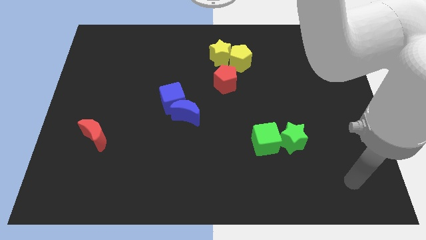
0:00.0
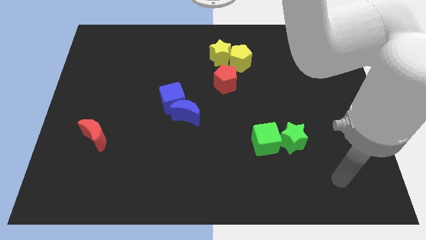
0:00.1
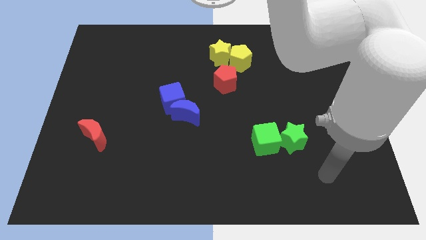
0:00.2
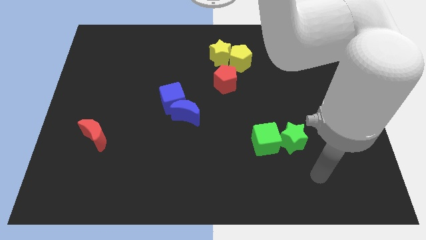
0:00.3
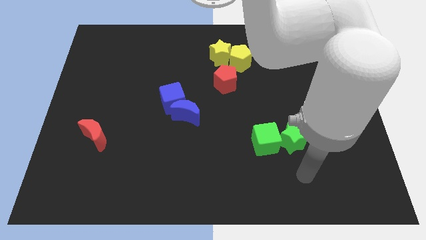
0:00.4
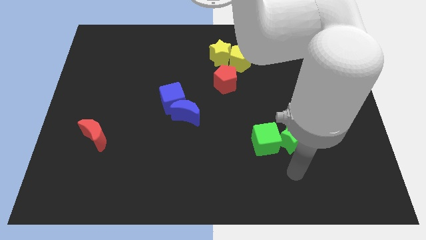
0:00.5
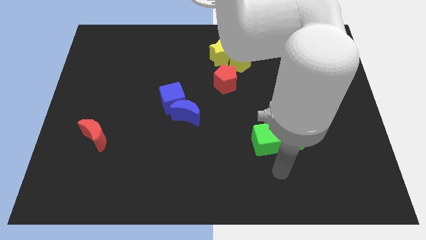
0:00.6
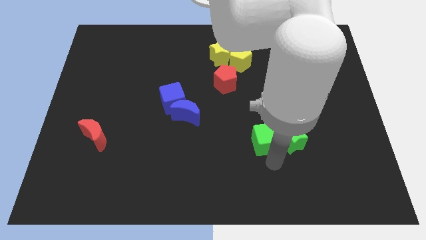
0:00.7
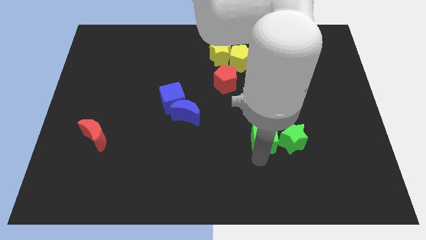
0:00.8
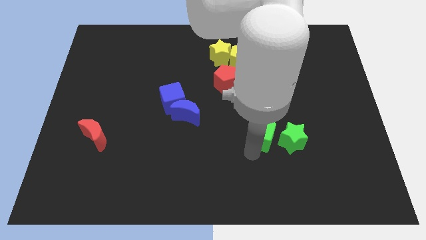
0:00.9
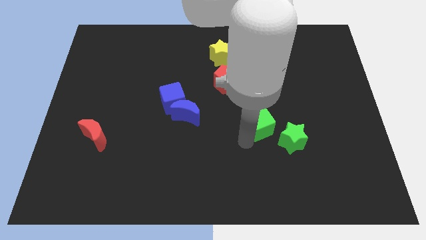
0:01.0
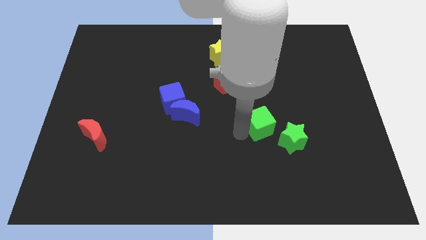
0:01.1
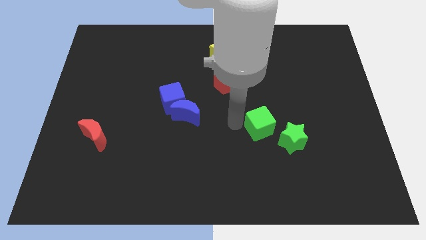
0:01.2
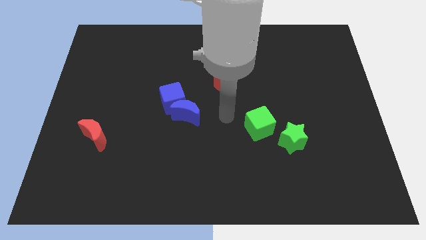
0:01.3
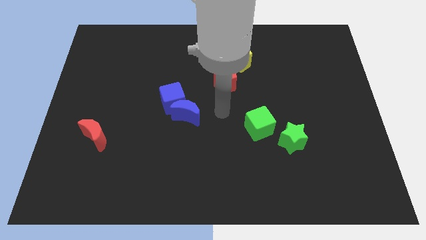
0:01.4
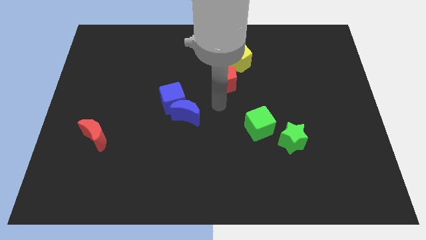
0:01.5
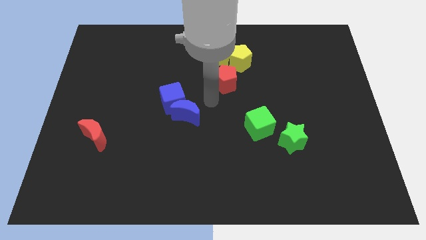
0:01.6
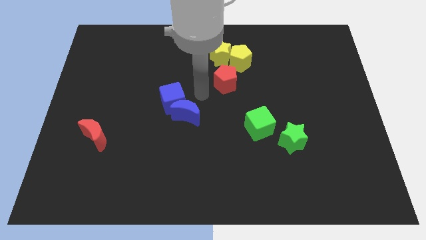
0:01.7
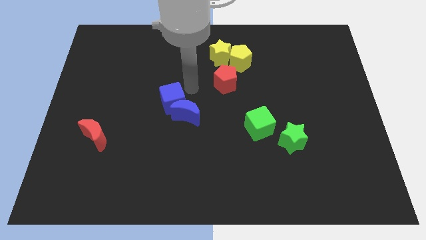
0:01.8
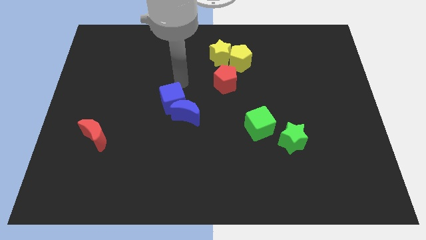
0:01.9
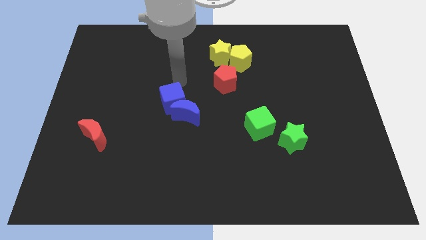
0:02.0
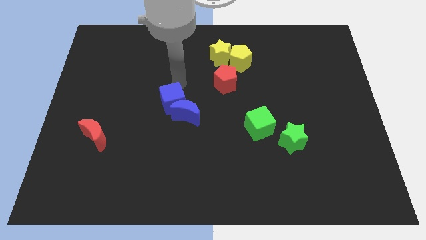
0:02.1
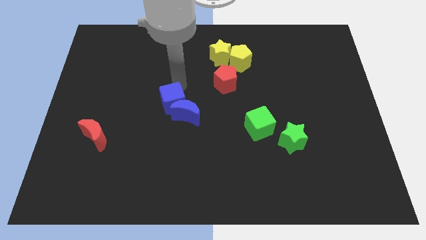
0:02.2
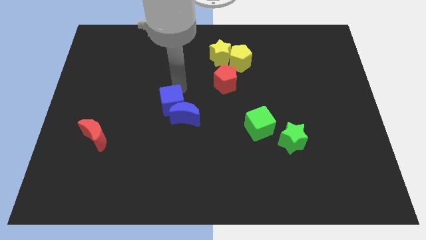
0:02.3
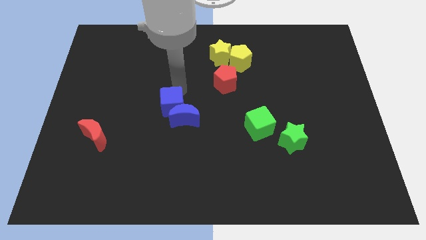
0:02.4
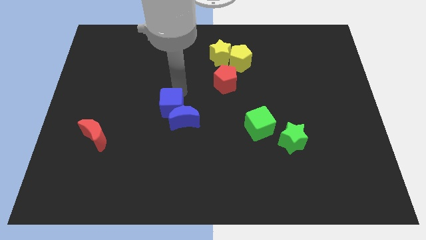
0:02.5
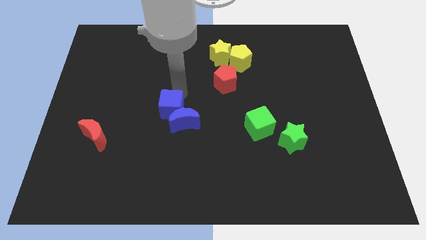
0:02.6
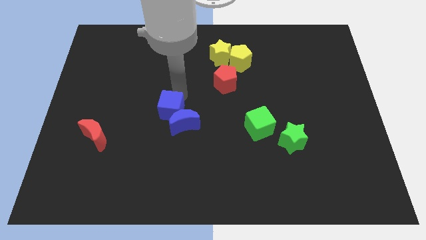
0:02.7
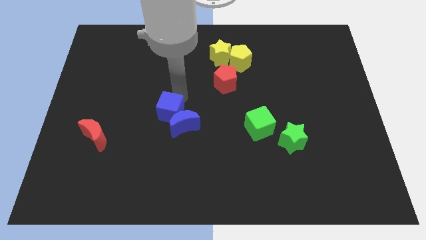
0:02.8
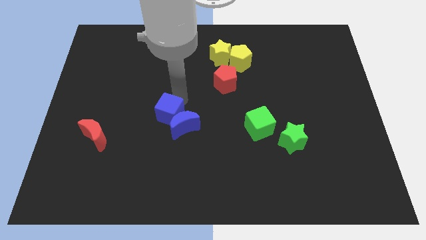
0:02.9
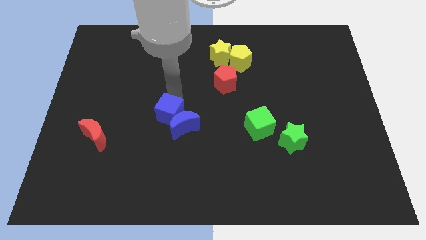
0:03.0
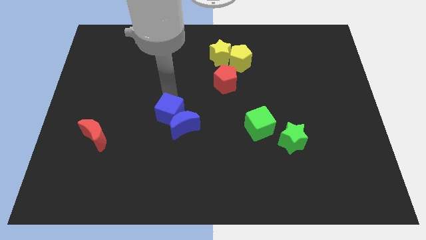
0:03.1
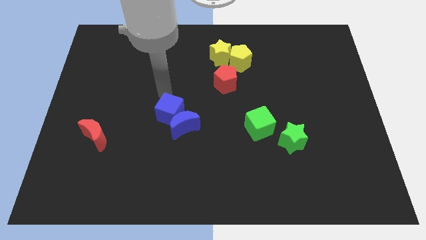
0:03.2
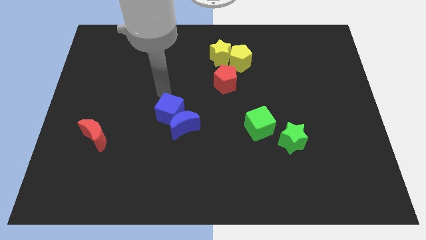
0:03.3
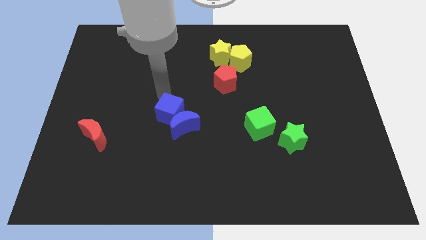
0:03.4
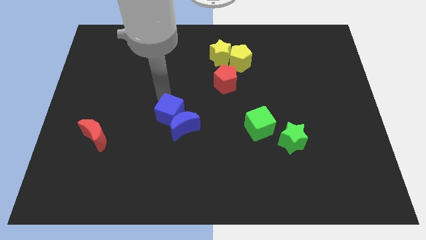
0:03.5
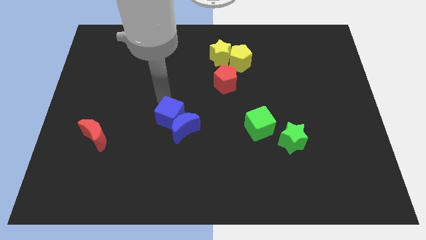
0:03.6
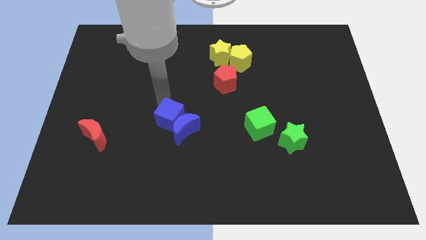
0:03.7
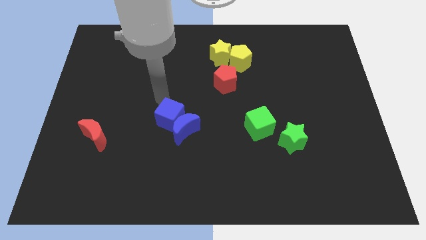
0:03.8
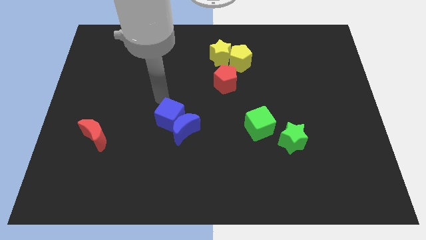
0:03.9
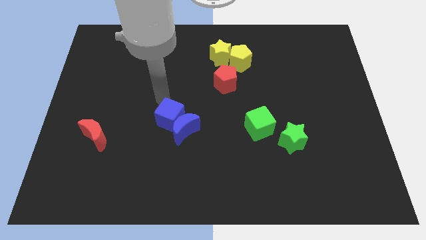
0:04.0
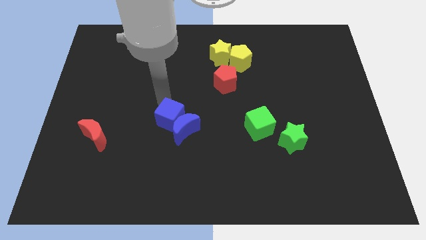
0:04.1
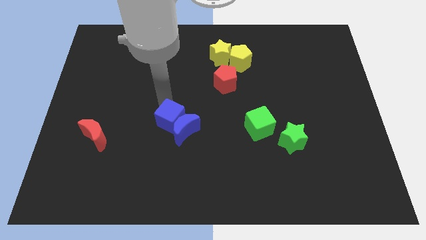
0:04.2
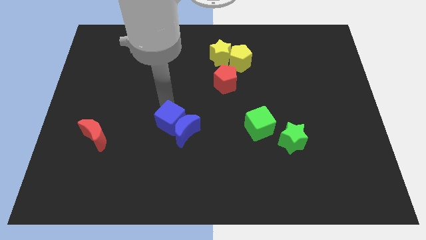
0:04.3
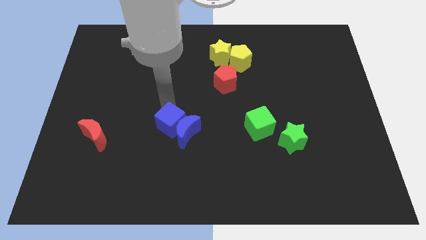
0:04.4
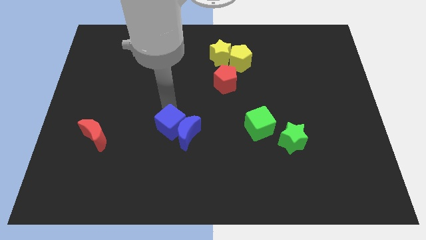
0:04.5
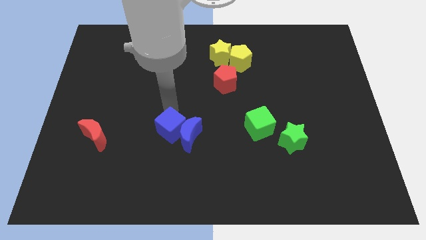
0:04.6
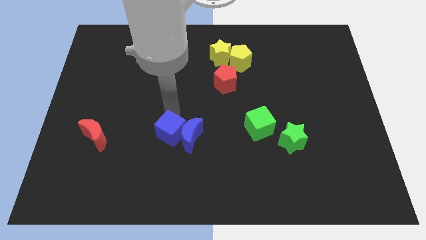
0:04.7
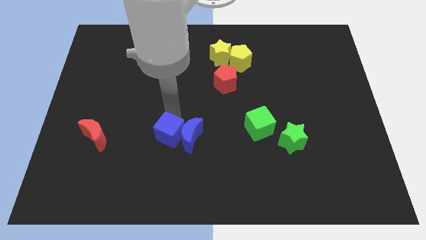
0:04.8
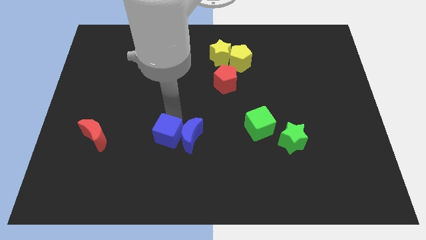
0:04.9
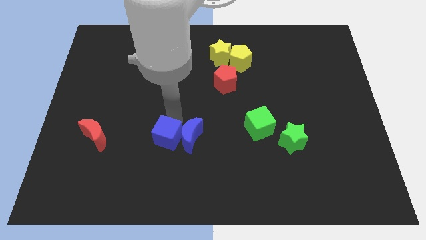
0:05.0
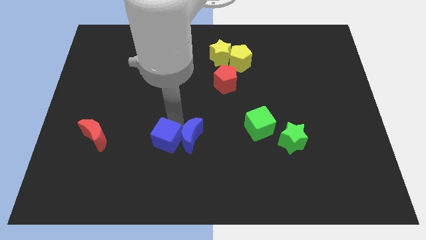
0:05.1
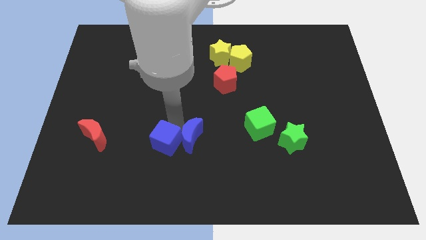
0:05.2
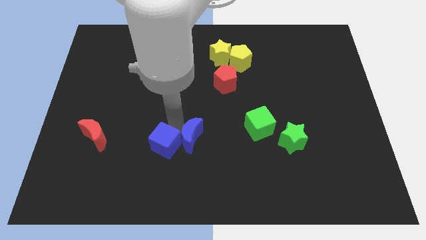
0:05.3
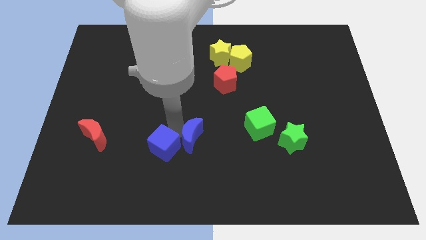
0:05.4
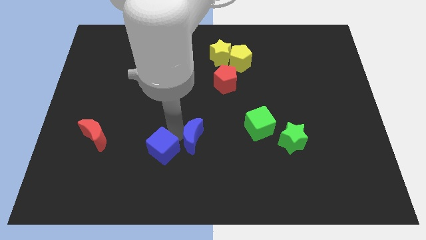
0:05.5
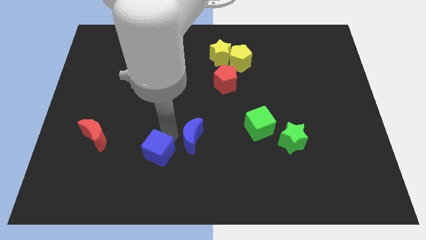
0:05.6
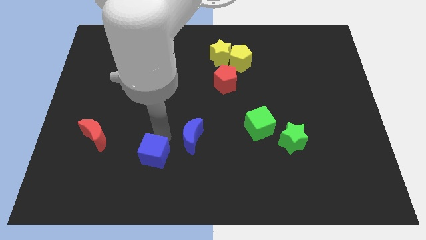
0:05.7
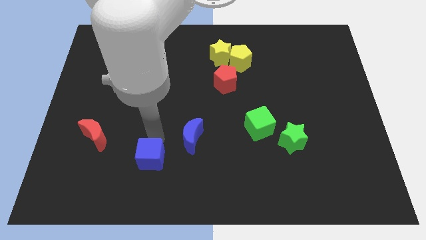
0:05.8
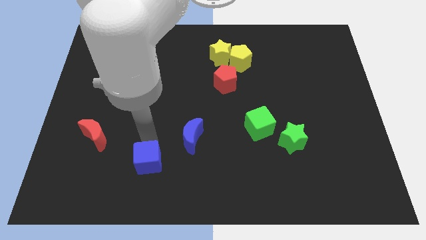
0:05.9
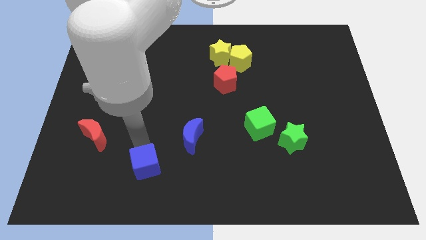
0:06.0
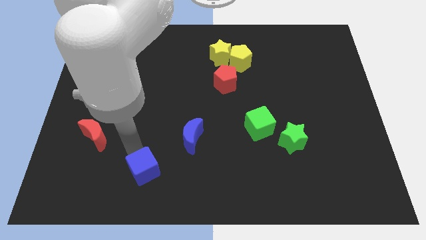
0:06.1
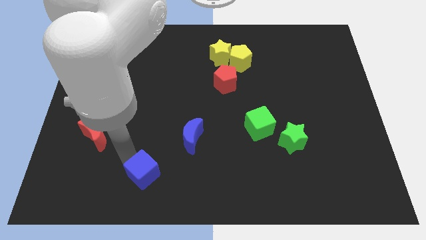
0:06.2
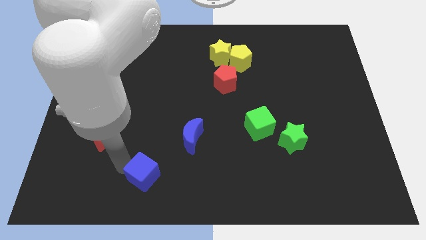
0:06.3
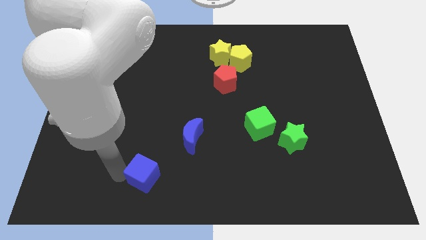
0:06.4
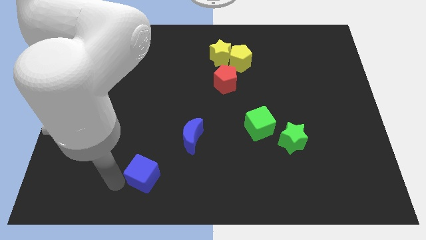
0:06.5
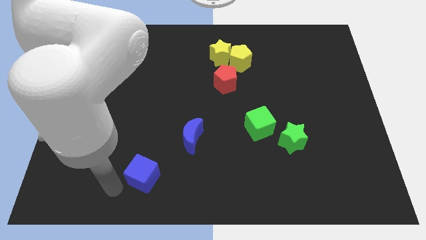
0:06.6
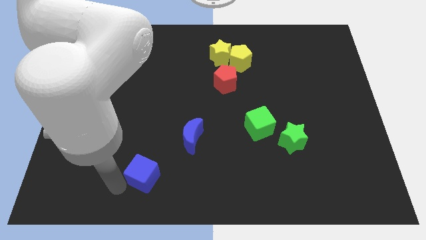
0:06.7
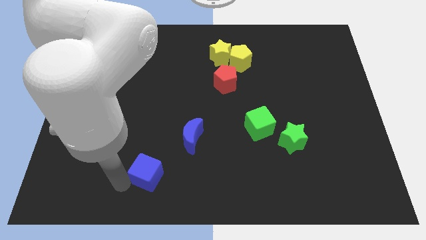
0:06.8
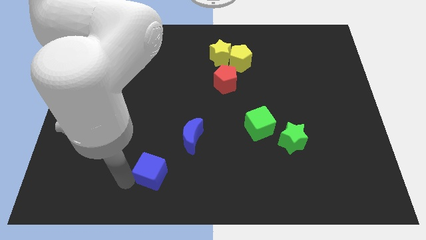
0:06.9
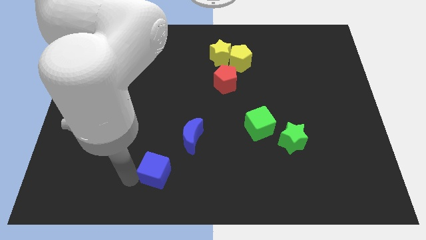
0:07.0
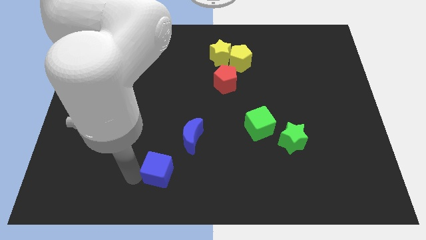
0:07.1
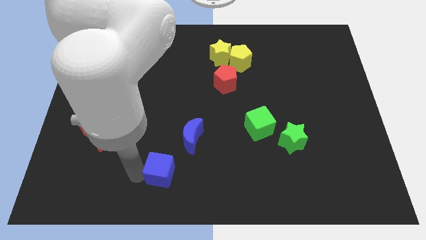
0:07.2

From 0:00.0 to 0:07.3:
move the blue cube to the bottom

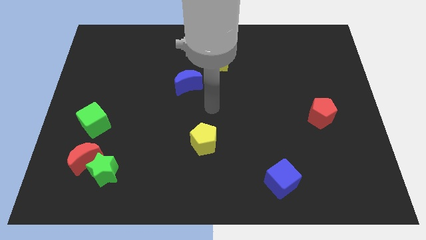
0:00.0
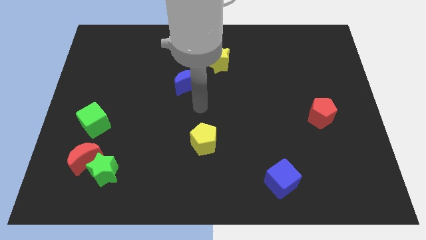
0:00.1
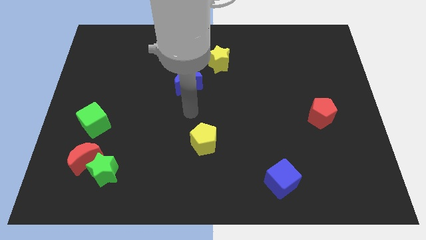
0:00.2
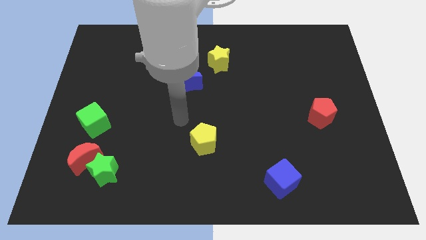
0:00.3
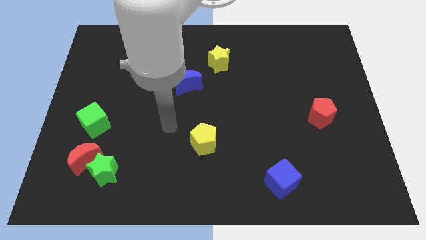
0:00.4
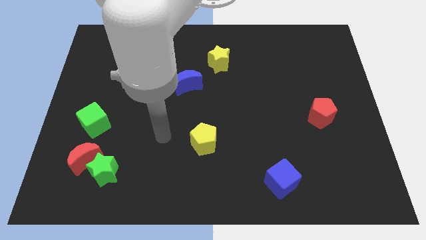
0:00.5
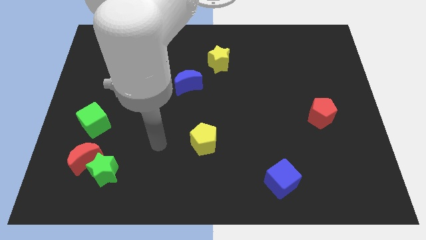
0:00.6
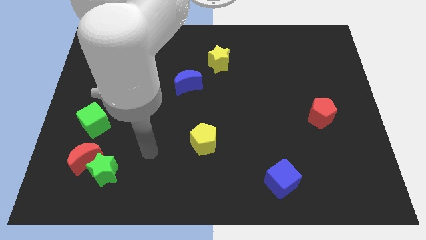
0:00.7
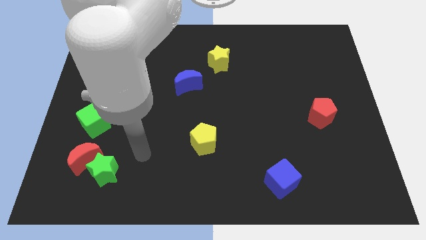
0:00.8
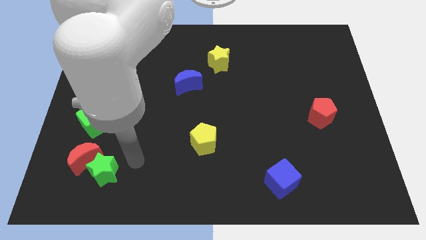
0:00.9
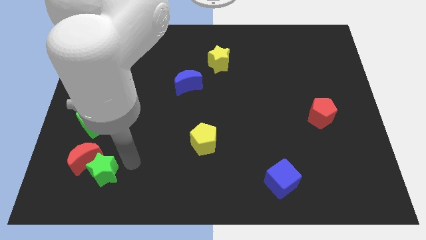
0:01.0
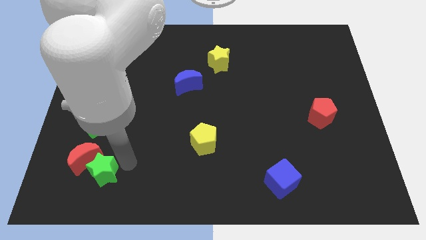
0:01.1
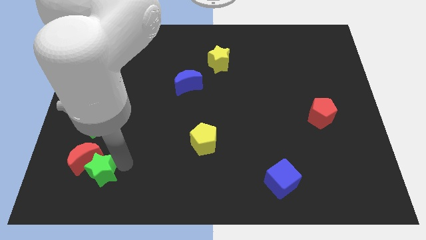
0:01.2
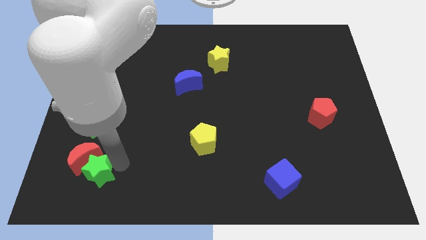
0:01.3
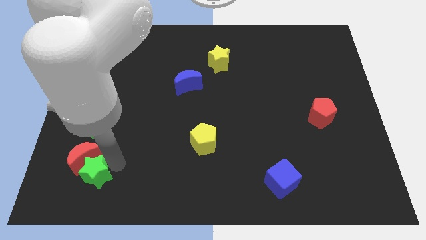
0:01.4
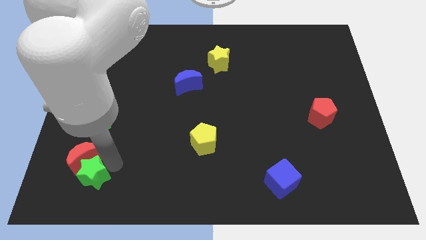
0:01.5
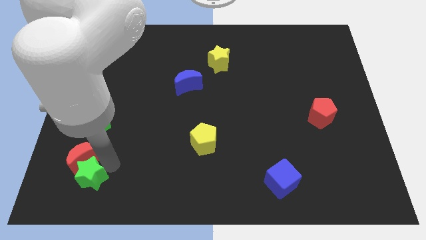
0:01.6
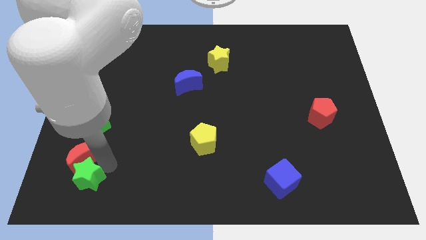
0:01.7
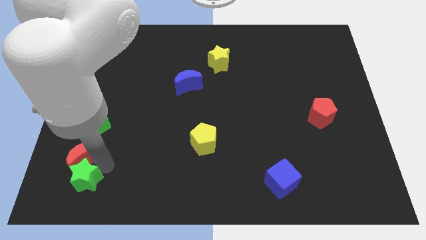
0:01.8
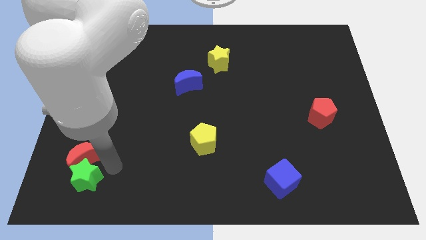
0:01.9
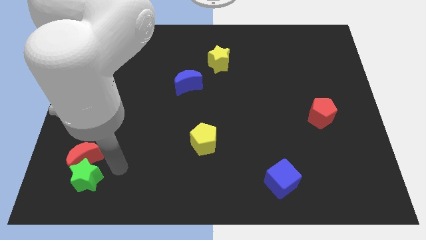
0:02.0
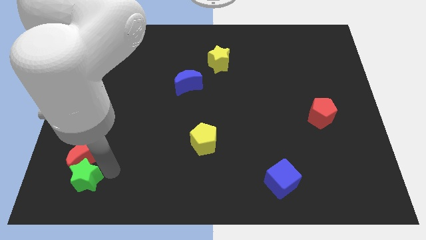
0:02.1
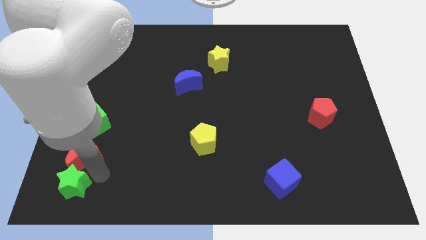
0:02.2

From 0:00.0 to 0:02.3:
push the green star to the bottom left of the board
